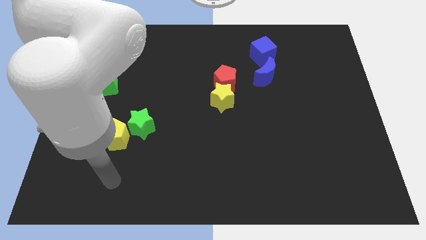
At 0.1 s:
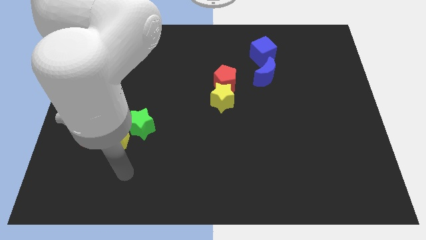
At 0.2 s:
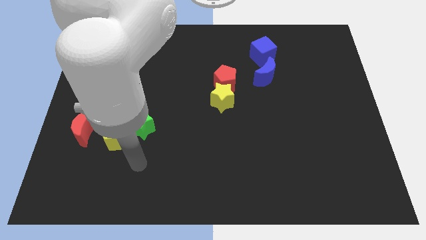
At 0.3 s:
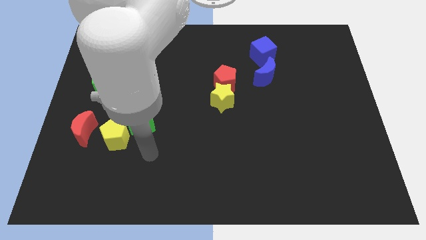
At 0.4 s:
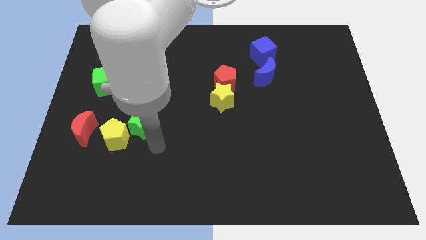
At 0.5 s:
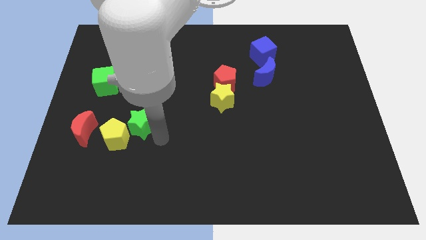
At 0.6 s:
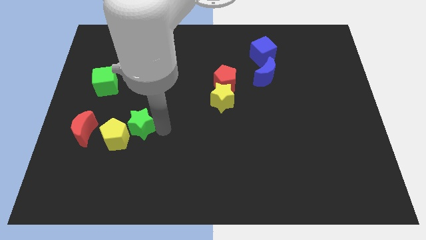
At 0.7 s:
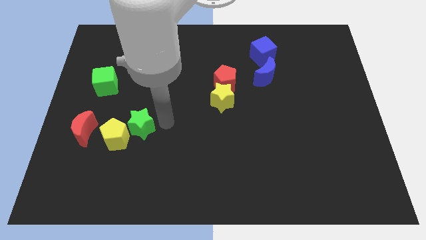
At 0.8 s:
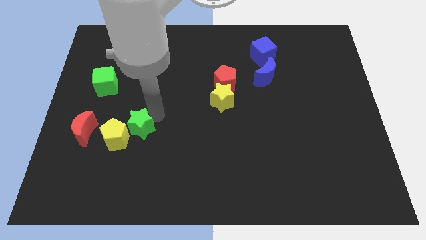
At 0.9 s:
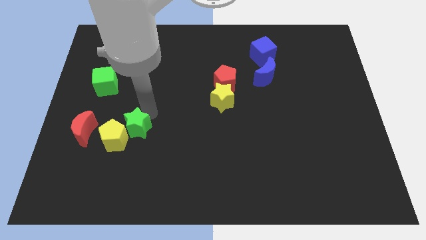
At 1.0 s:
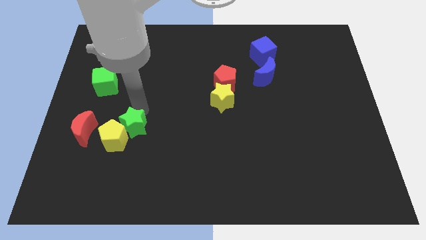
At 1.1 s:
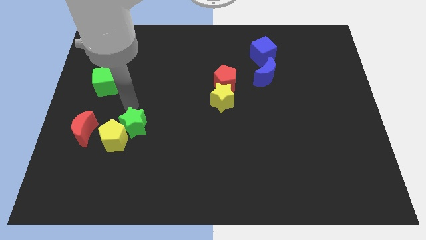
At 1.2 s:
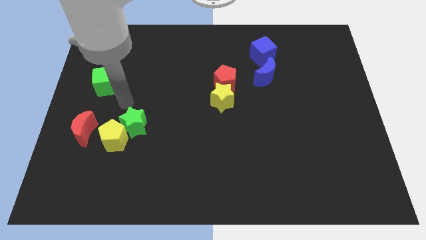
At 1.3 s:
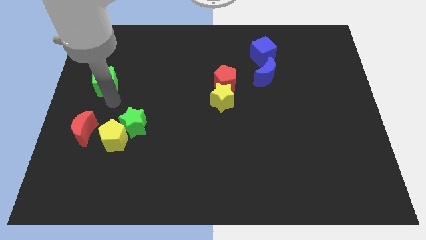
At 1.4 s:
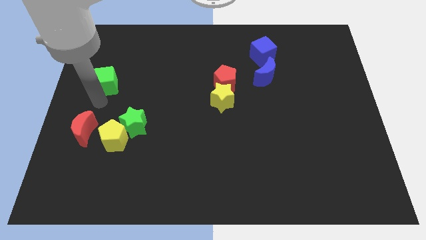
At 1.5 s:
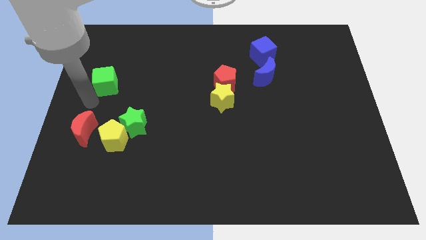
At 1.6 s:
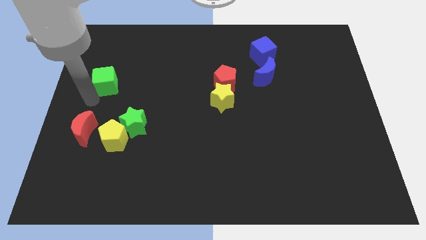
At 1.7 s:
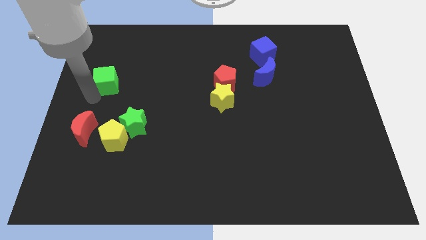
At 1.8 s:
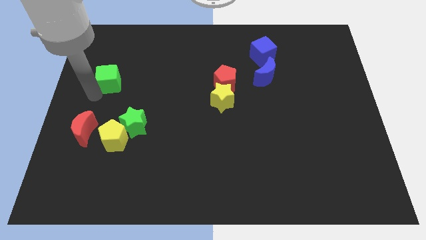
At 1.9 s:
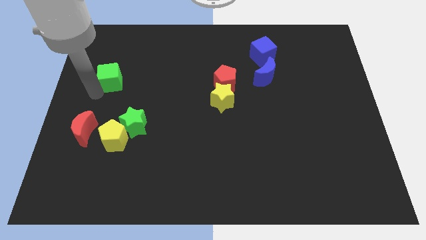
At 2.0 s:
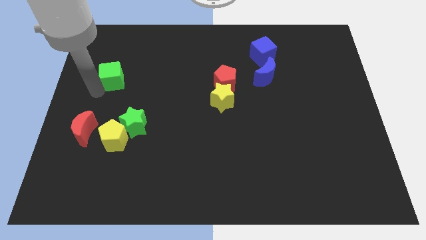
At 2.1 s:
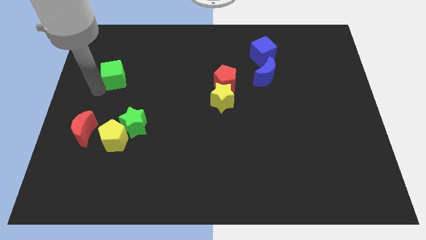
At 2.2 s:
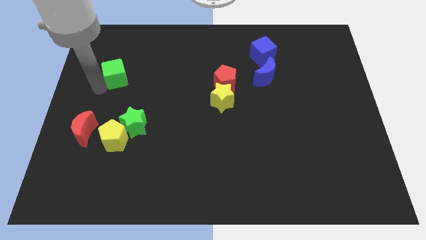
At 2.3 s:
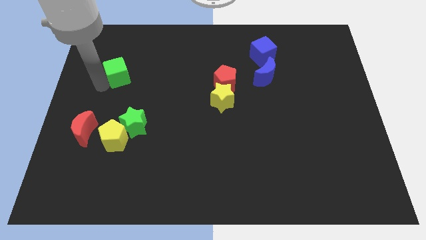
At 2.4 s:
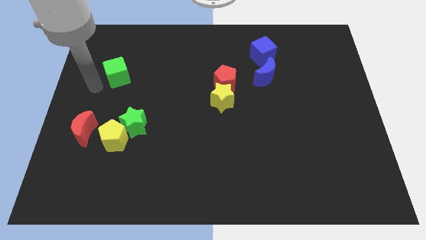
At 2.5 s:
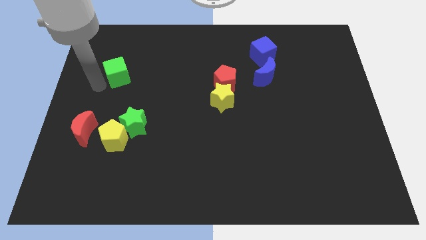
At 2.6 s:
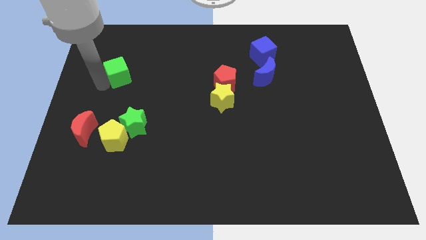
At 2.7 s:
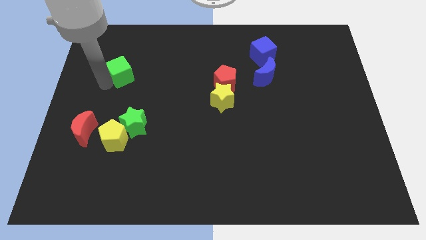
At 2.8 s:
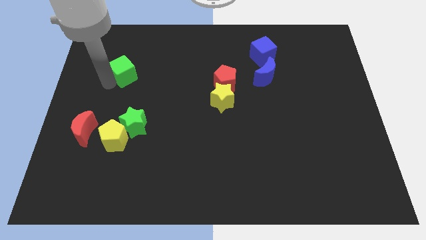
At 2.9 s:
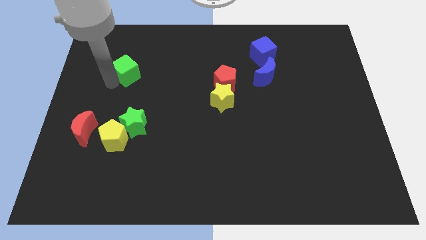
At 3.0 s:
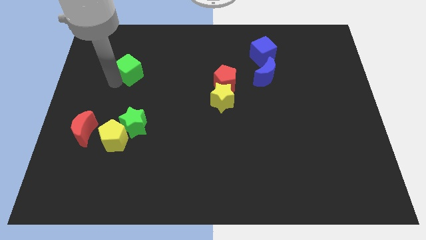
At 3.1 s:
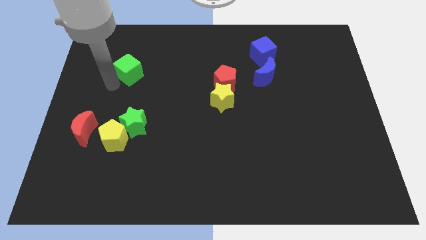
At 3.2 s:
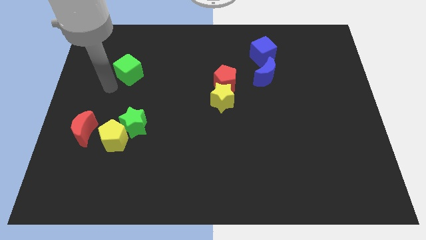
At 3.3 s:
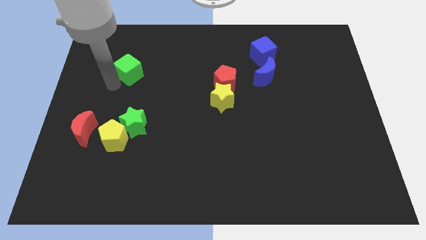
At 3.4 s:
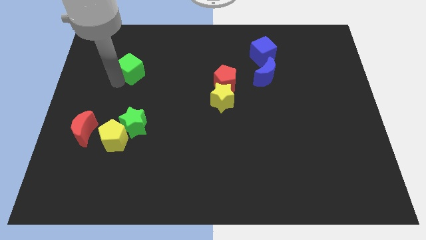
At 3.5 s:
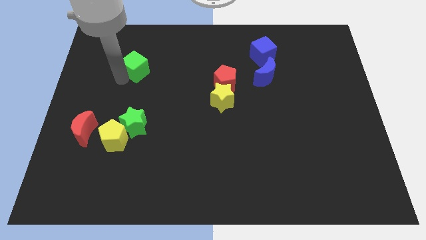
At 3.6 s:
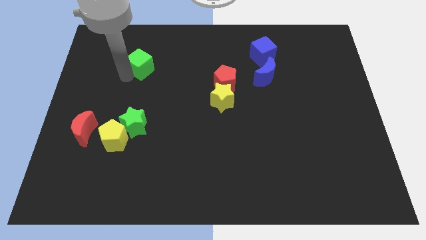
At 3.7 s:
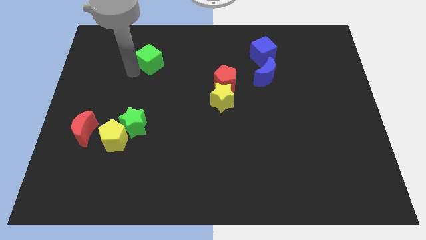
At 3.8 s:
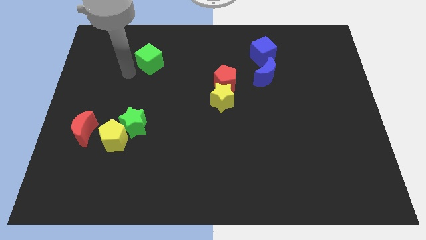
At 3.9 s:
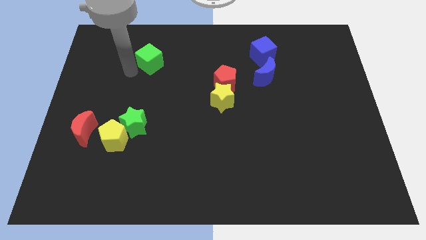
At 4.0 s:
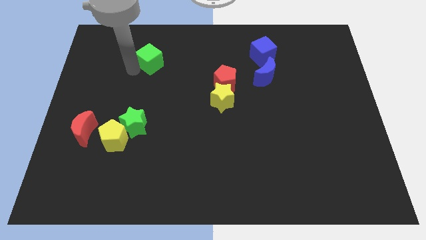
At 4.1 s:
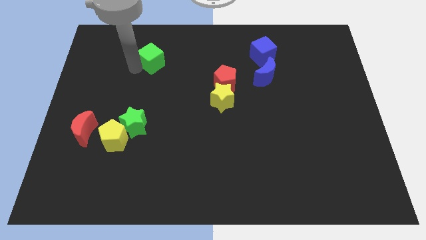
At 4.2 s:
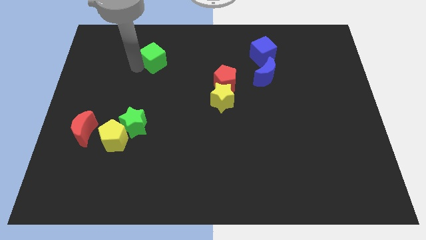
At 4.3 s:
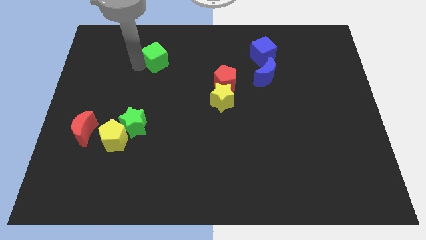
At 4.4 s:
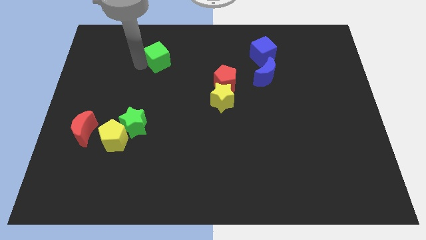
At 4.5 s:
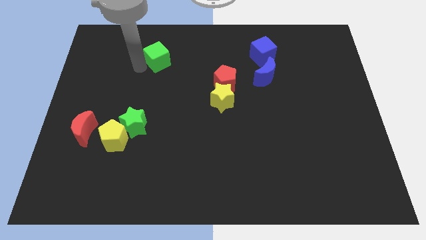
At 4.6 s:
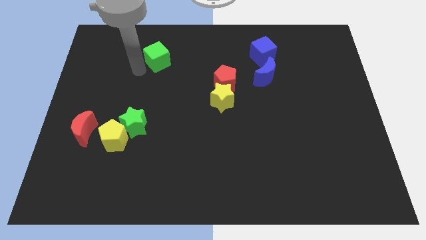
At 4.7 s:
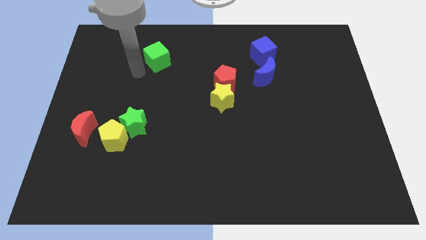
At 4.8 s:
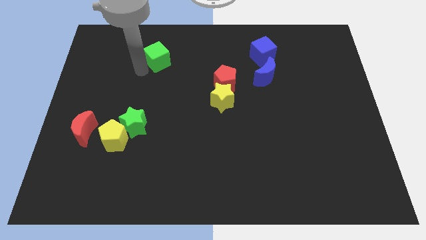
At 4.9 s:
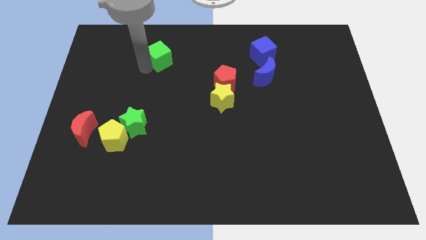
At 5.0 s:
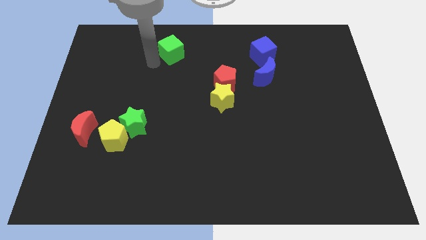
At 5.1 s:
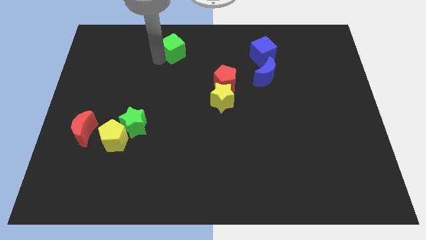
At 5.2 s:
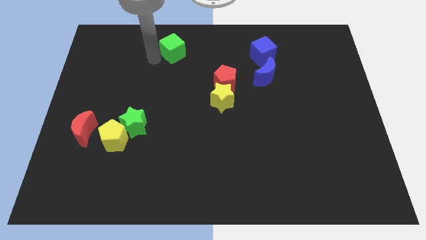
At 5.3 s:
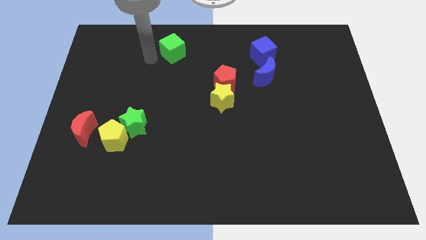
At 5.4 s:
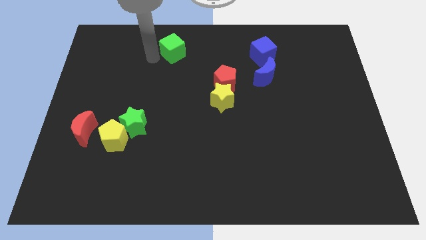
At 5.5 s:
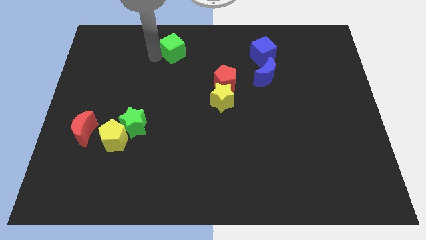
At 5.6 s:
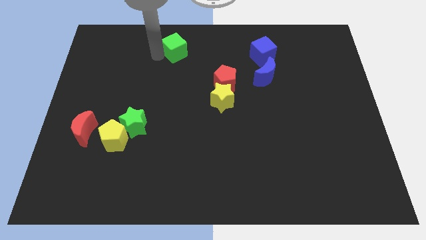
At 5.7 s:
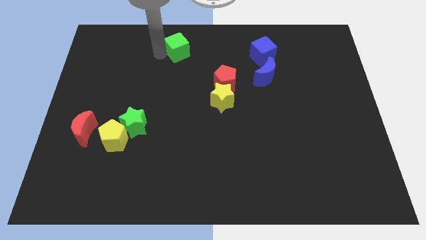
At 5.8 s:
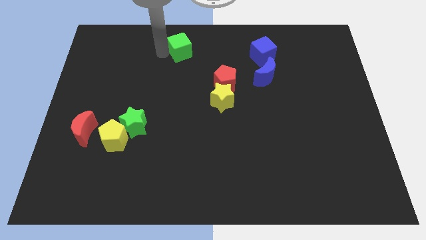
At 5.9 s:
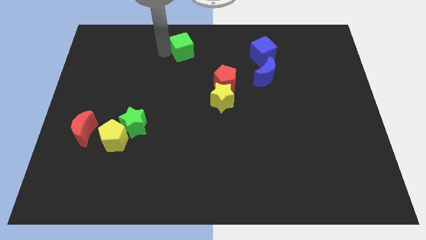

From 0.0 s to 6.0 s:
slide the green cube to the top side
